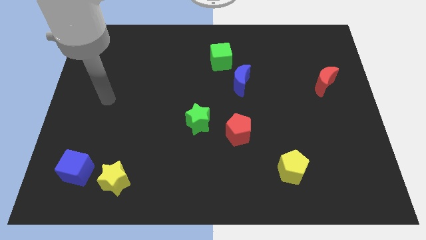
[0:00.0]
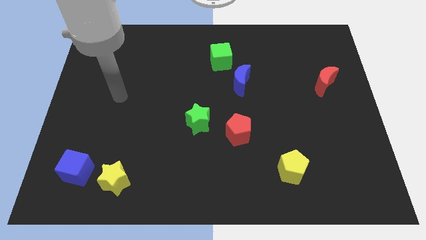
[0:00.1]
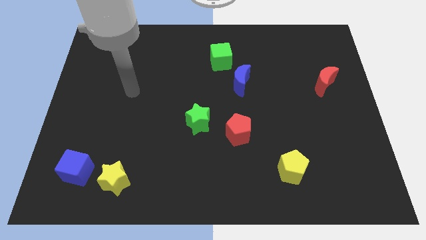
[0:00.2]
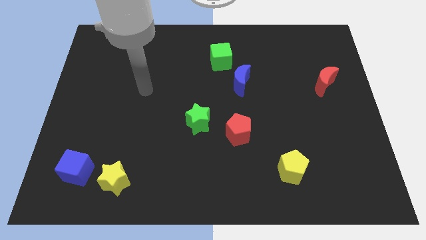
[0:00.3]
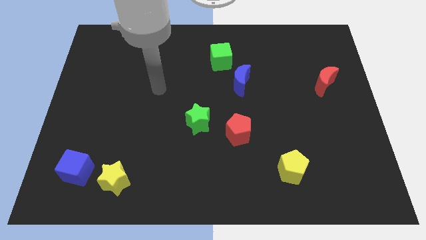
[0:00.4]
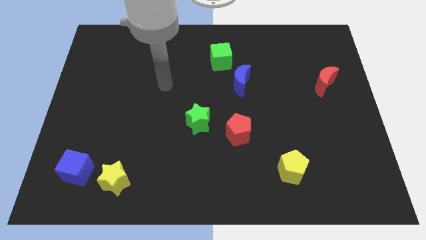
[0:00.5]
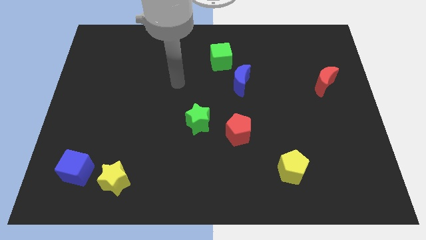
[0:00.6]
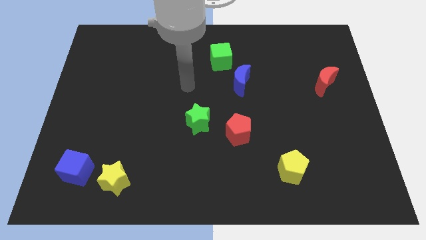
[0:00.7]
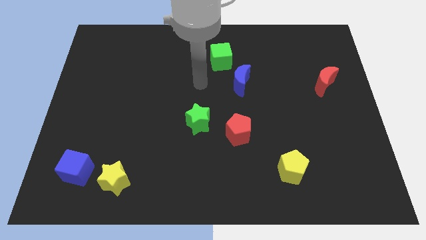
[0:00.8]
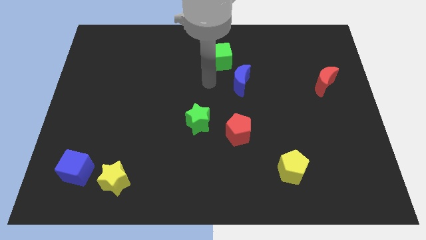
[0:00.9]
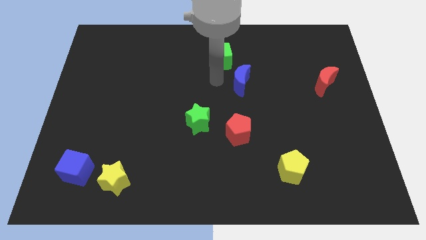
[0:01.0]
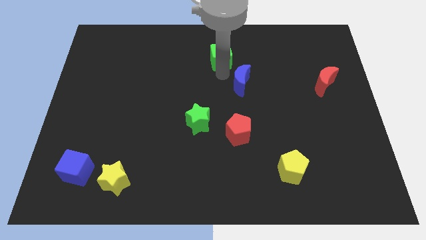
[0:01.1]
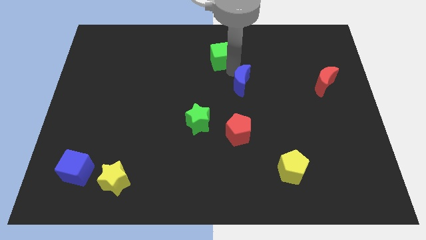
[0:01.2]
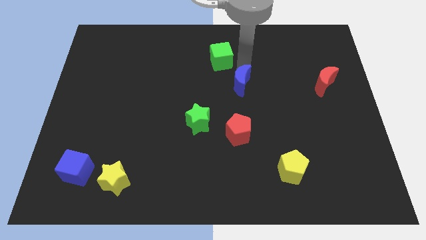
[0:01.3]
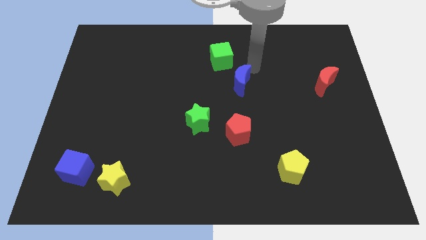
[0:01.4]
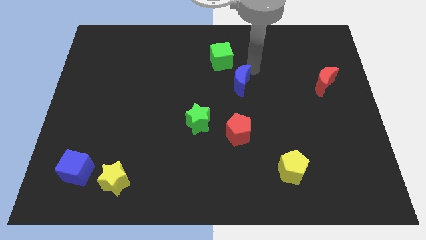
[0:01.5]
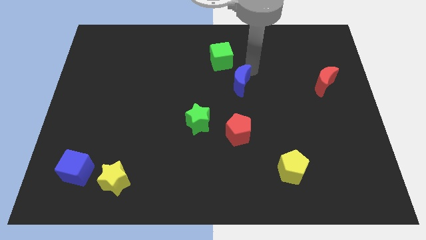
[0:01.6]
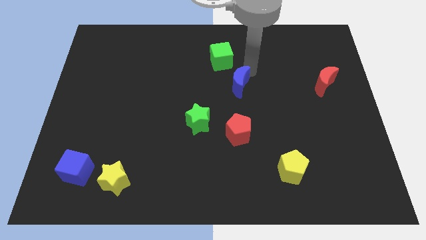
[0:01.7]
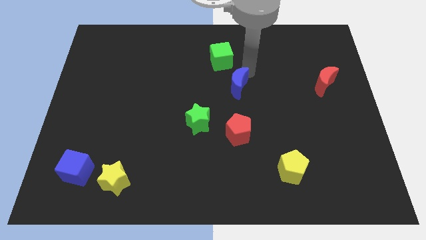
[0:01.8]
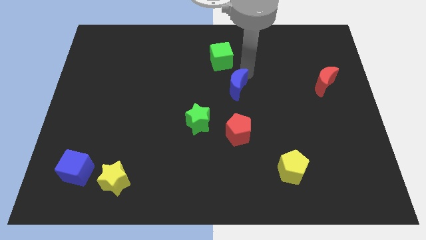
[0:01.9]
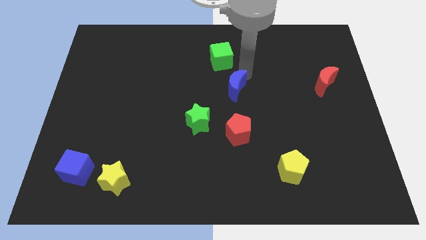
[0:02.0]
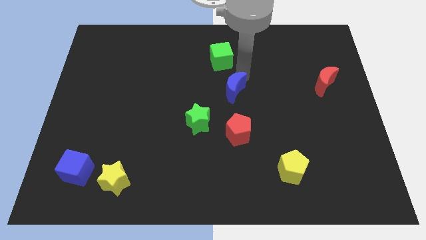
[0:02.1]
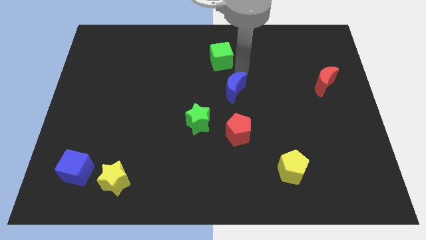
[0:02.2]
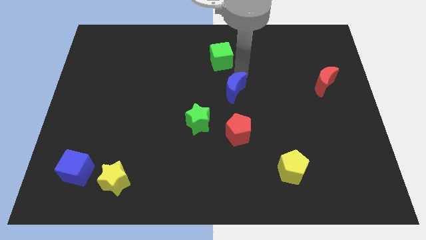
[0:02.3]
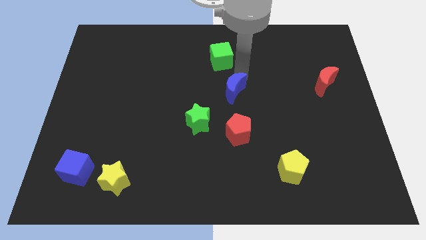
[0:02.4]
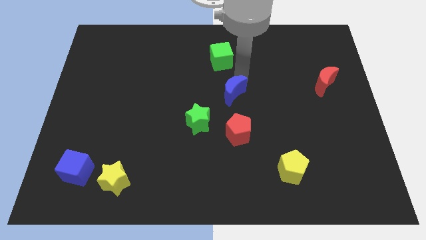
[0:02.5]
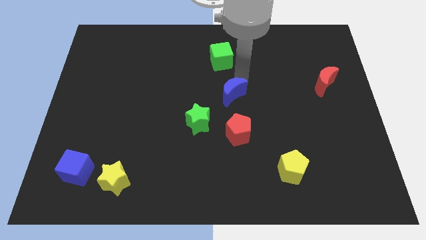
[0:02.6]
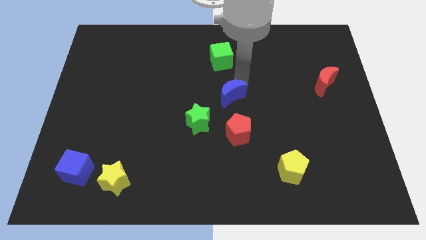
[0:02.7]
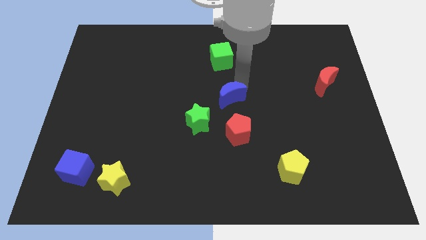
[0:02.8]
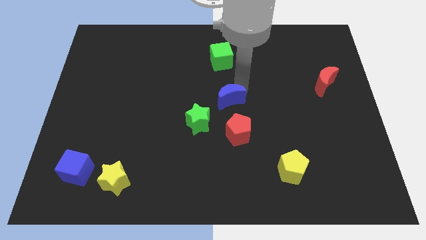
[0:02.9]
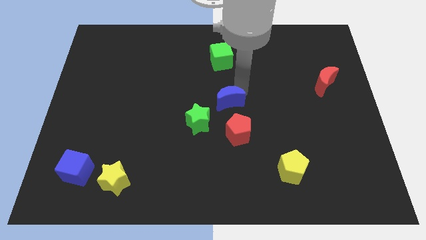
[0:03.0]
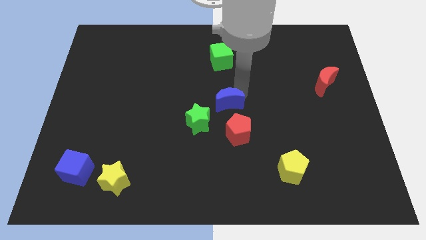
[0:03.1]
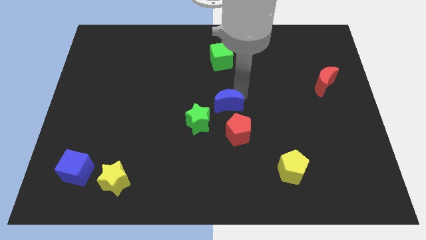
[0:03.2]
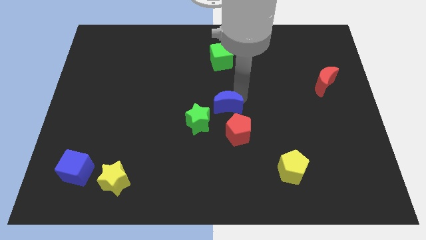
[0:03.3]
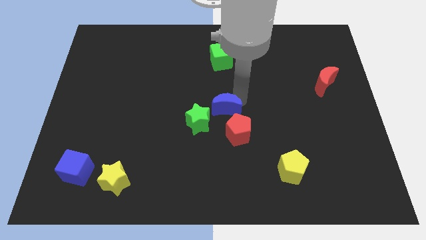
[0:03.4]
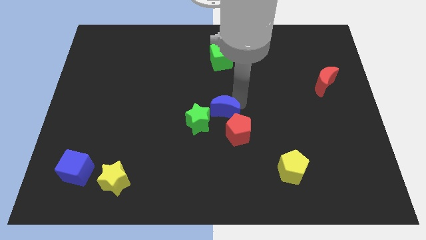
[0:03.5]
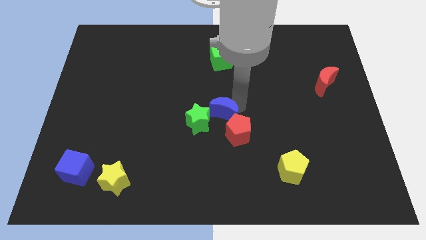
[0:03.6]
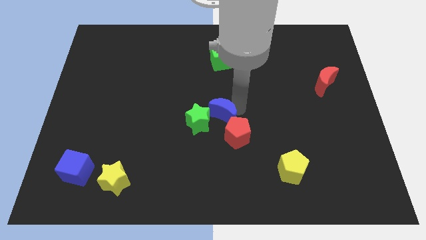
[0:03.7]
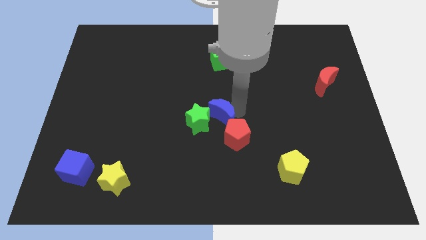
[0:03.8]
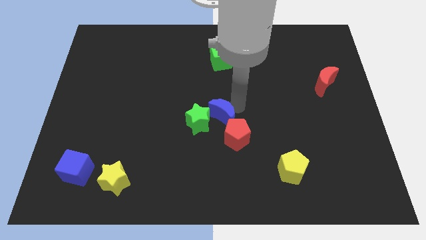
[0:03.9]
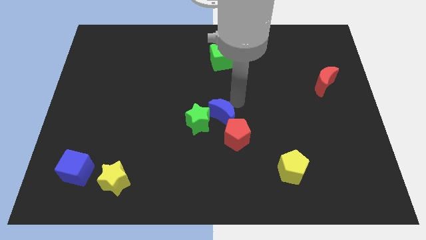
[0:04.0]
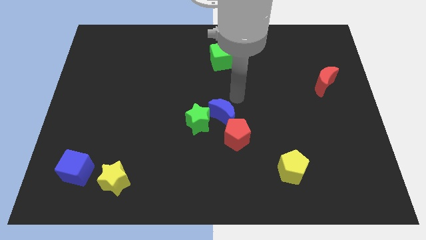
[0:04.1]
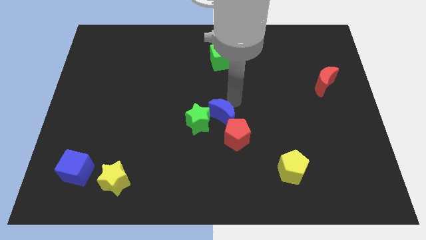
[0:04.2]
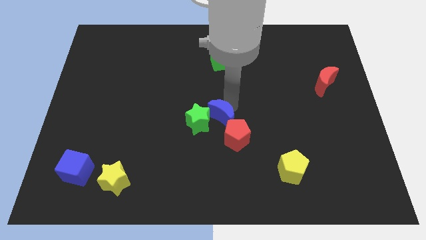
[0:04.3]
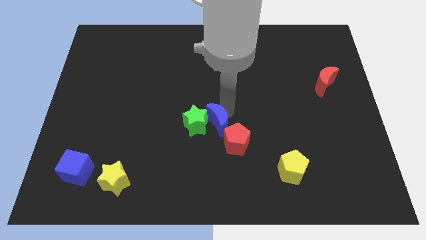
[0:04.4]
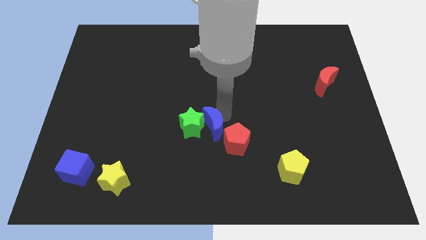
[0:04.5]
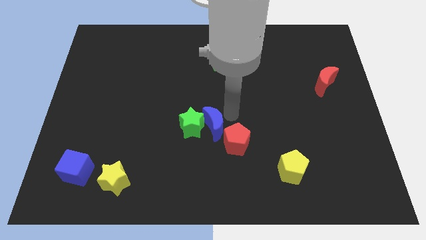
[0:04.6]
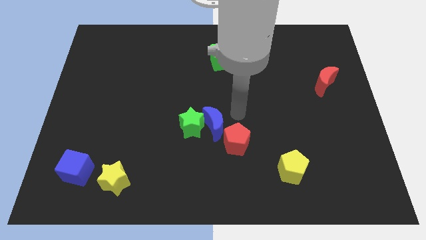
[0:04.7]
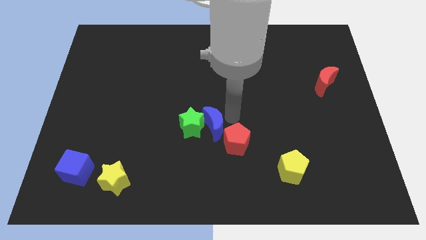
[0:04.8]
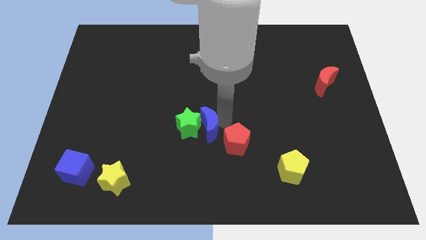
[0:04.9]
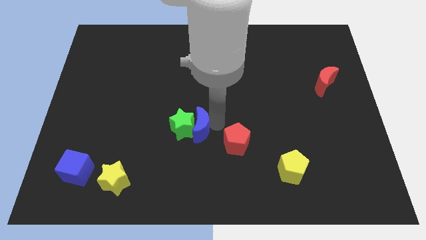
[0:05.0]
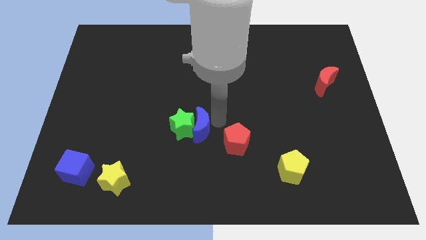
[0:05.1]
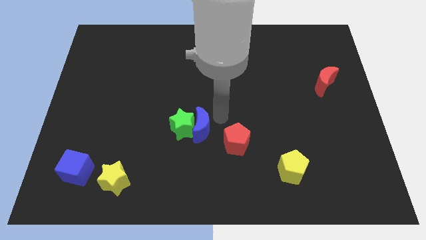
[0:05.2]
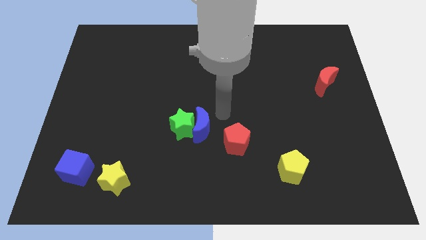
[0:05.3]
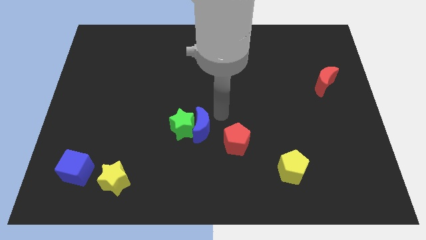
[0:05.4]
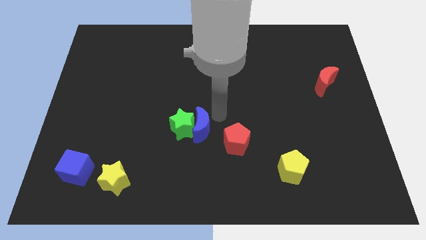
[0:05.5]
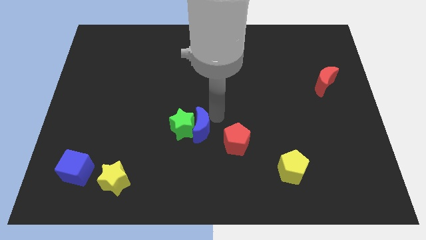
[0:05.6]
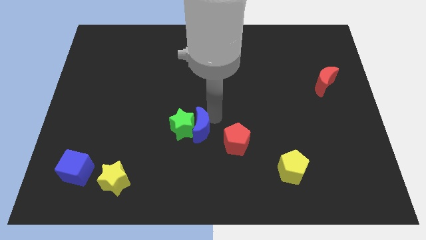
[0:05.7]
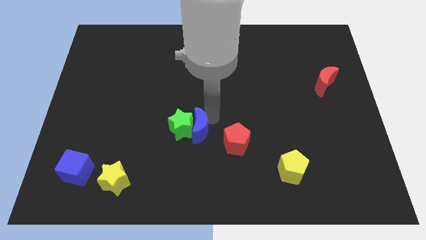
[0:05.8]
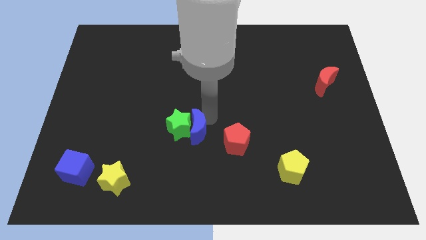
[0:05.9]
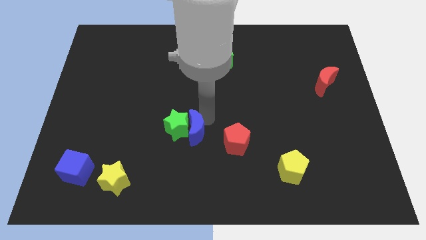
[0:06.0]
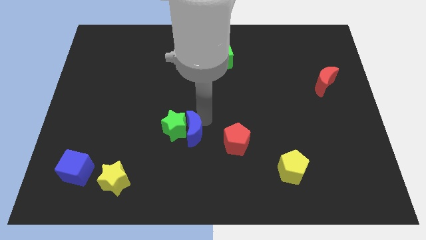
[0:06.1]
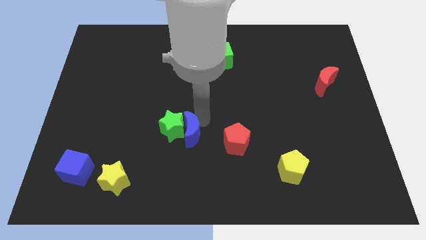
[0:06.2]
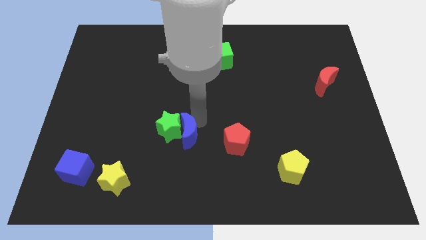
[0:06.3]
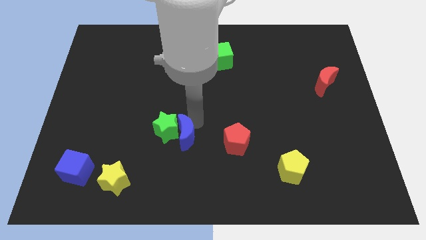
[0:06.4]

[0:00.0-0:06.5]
move the blue moon down and left

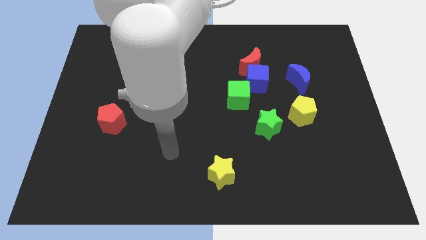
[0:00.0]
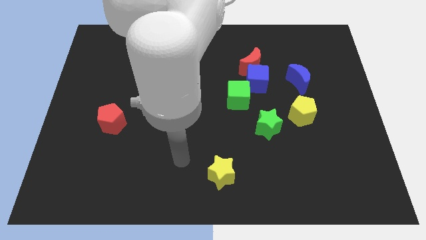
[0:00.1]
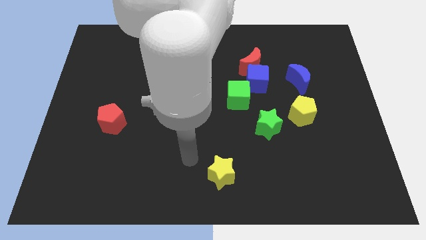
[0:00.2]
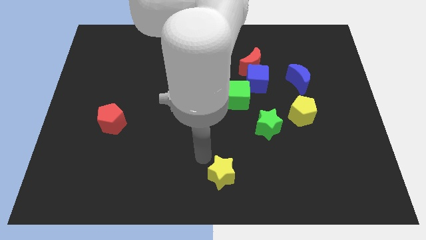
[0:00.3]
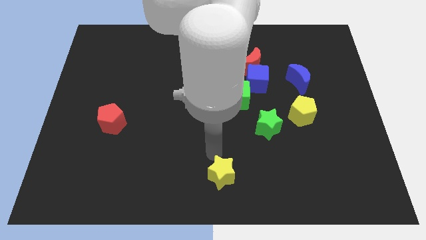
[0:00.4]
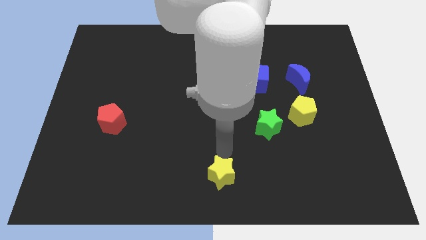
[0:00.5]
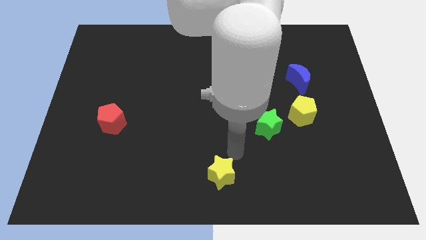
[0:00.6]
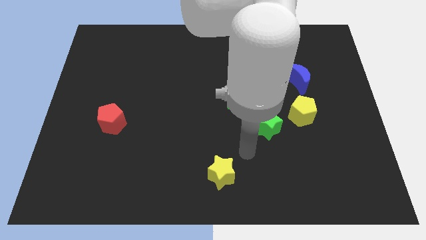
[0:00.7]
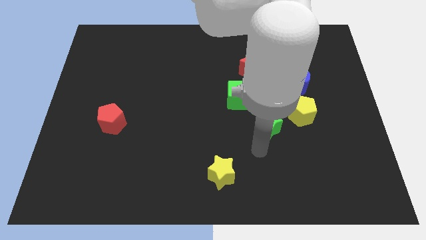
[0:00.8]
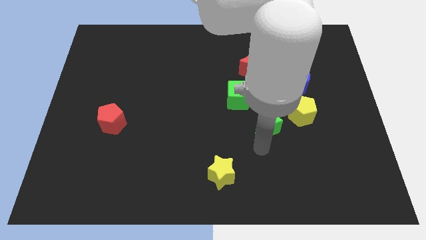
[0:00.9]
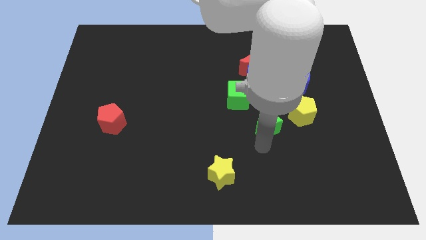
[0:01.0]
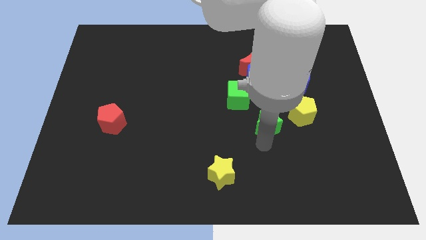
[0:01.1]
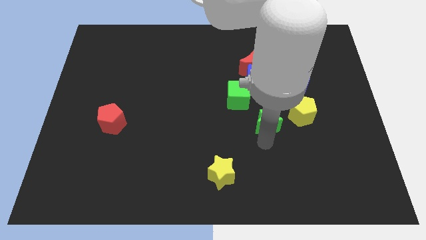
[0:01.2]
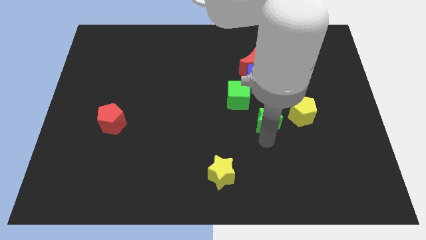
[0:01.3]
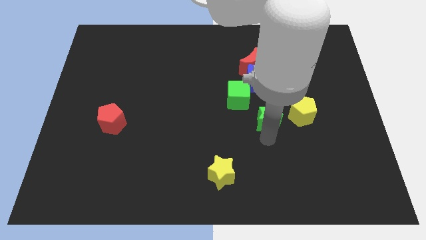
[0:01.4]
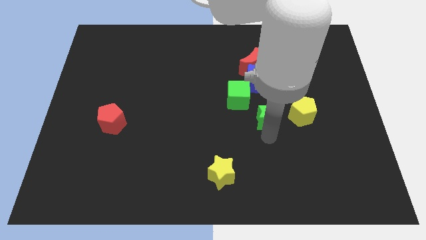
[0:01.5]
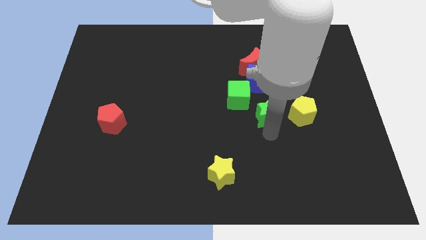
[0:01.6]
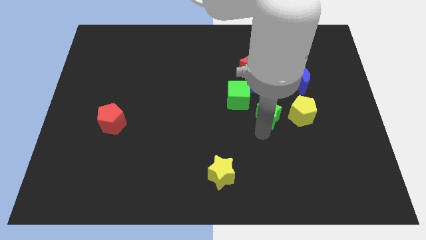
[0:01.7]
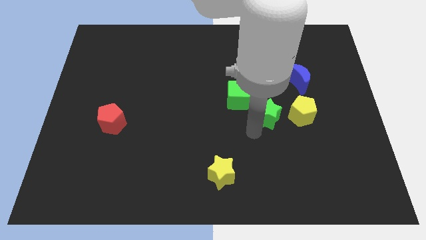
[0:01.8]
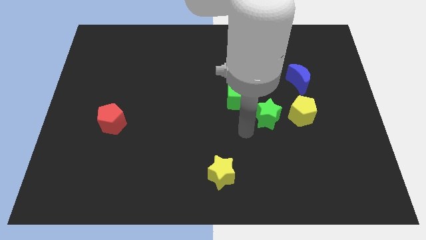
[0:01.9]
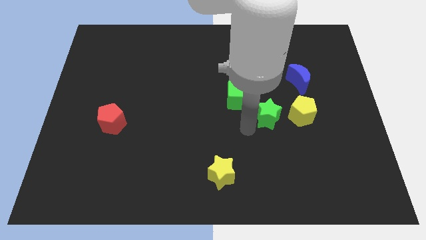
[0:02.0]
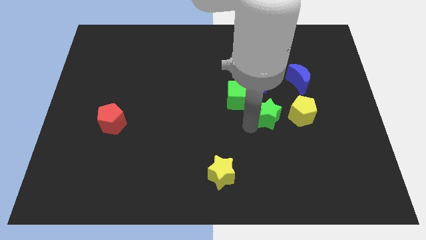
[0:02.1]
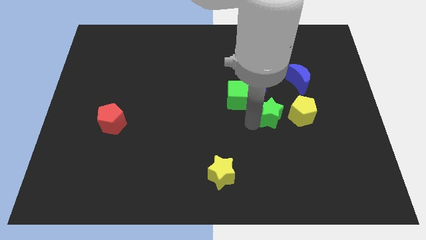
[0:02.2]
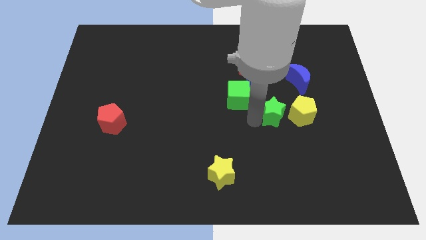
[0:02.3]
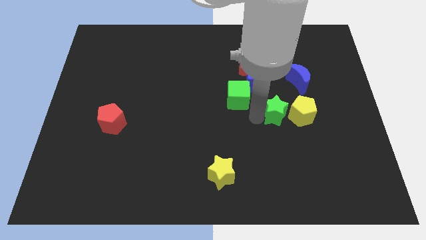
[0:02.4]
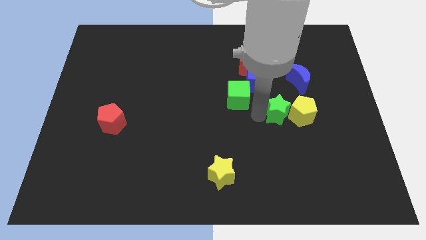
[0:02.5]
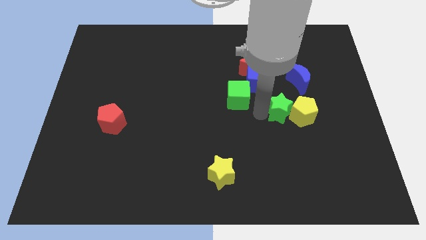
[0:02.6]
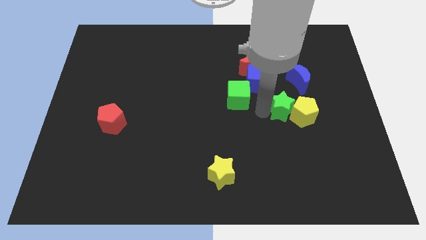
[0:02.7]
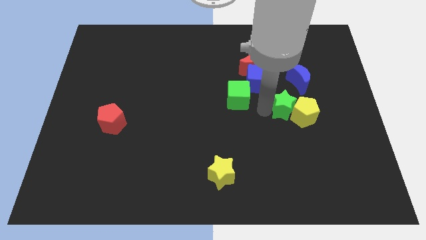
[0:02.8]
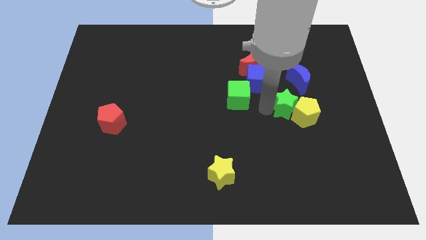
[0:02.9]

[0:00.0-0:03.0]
move the green star up and then right a bit
